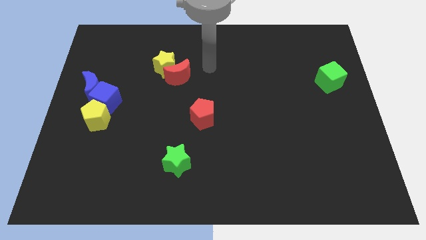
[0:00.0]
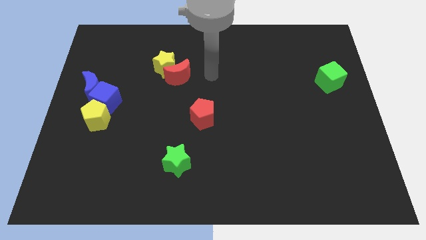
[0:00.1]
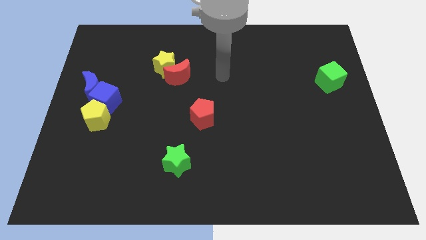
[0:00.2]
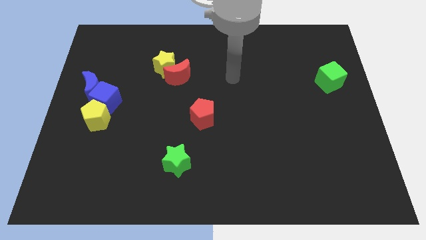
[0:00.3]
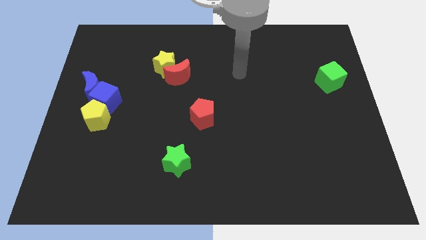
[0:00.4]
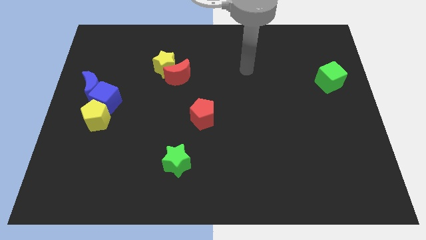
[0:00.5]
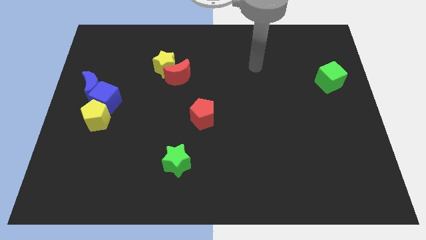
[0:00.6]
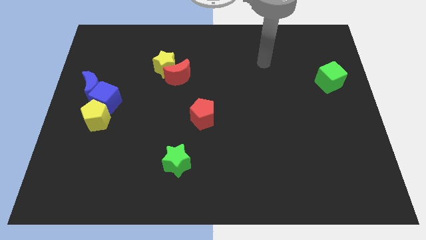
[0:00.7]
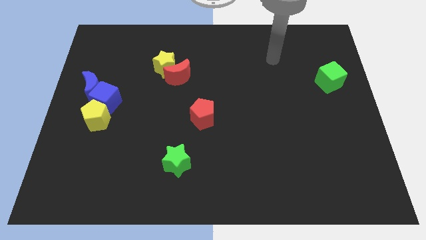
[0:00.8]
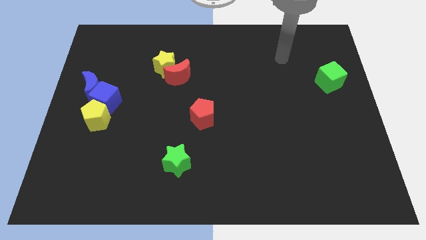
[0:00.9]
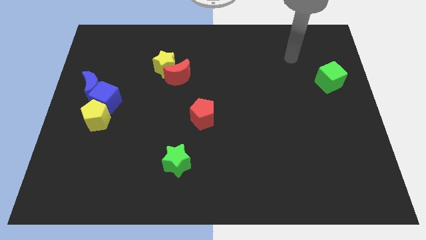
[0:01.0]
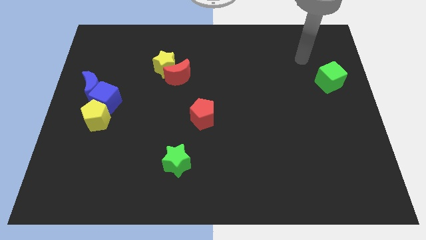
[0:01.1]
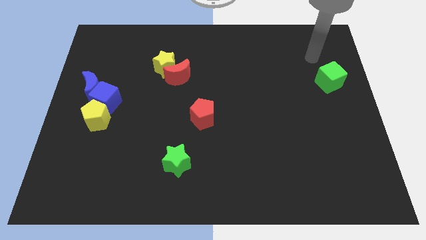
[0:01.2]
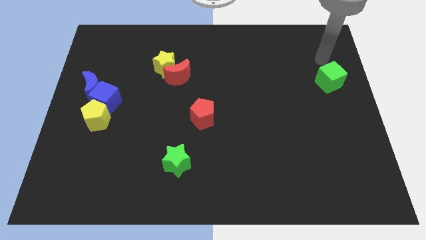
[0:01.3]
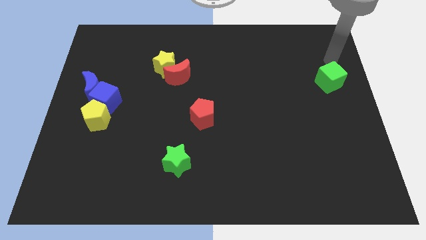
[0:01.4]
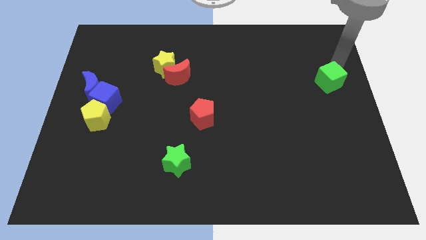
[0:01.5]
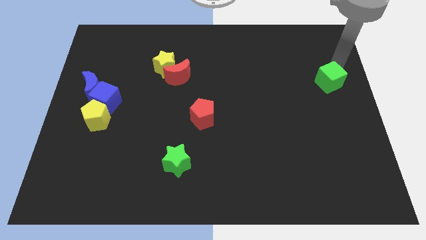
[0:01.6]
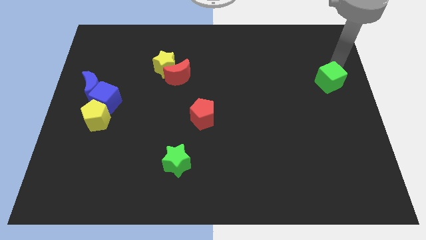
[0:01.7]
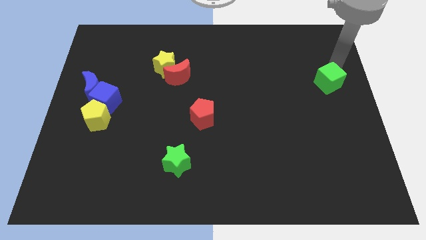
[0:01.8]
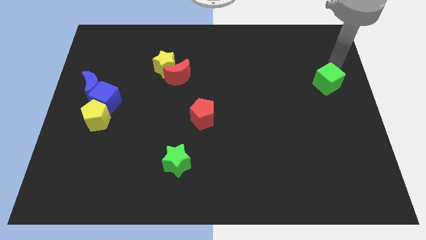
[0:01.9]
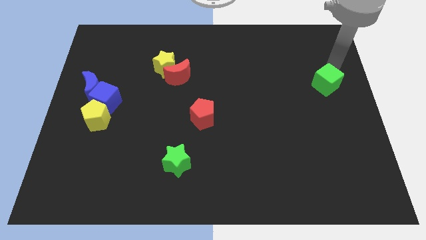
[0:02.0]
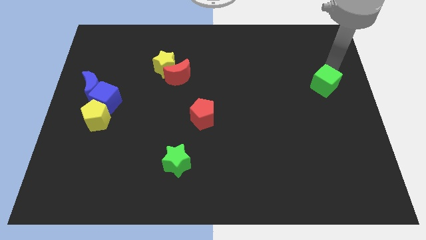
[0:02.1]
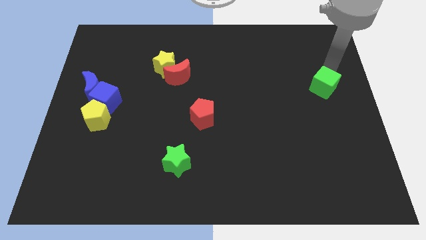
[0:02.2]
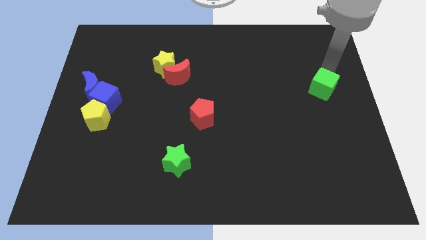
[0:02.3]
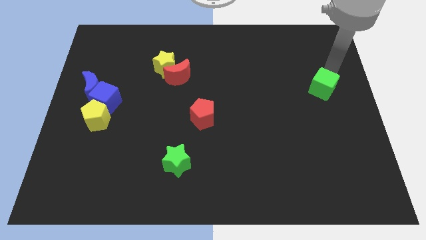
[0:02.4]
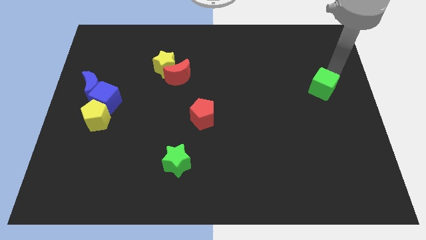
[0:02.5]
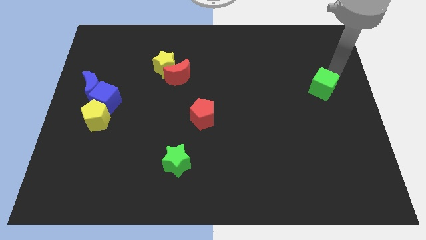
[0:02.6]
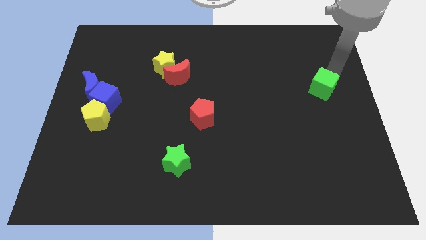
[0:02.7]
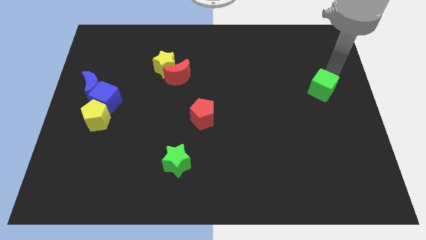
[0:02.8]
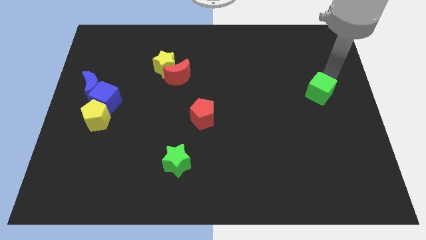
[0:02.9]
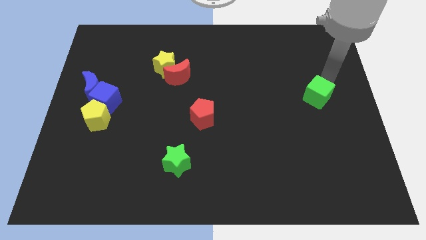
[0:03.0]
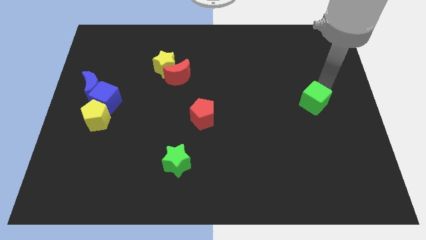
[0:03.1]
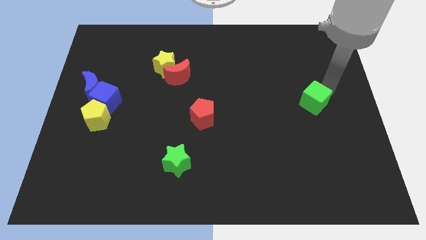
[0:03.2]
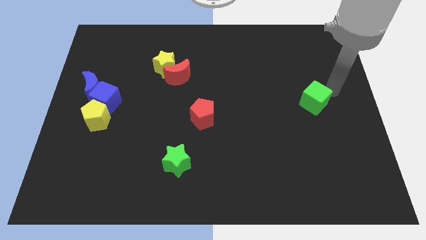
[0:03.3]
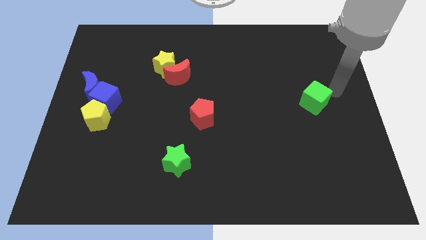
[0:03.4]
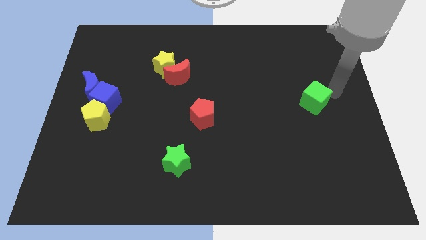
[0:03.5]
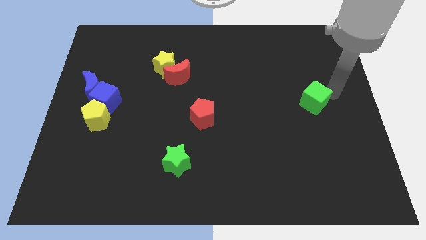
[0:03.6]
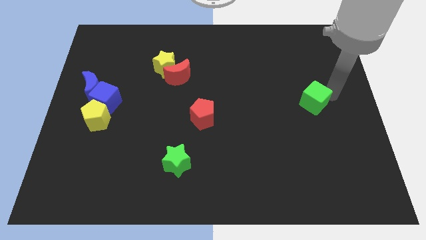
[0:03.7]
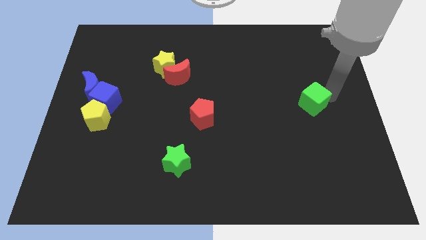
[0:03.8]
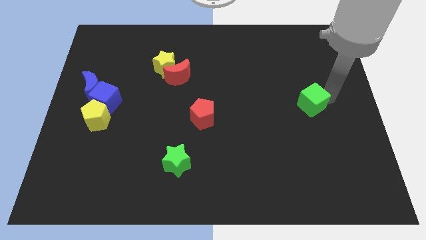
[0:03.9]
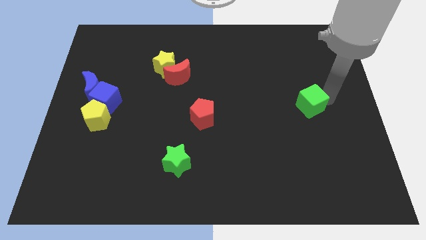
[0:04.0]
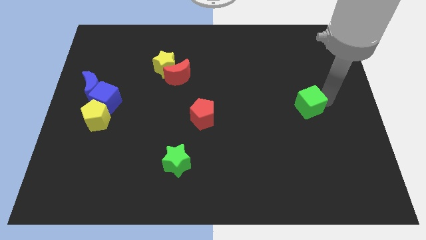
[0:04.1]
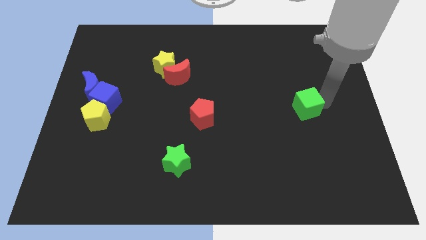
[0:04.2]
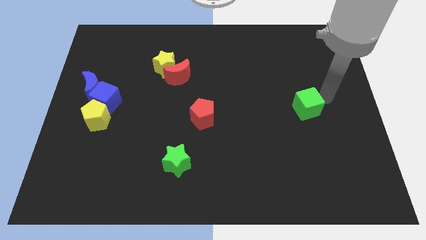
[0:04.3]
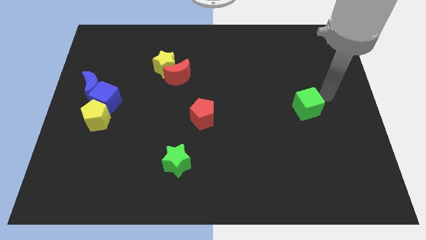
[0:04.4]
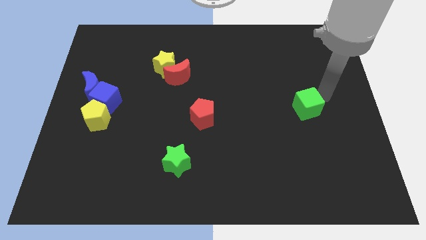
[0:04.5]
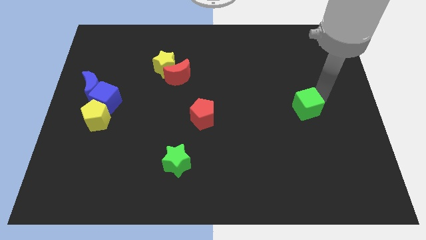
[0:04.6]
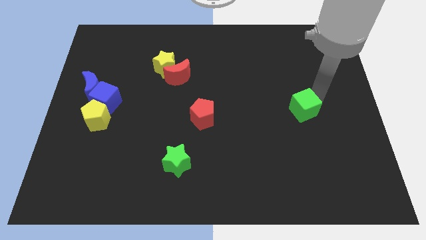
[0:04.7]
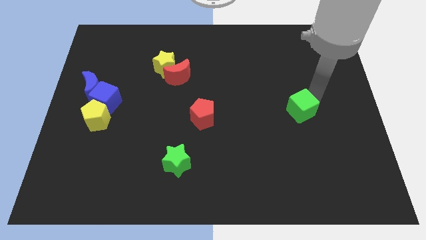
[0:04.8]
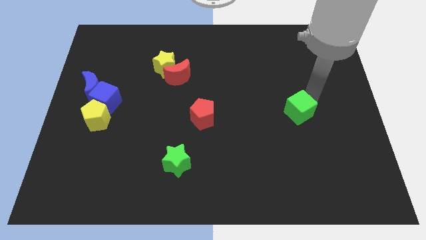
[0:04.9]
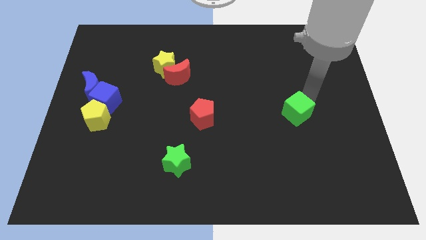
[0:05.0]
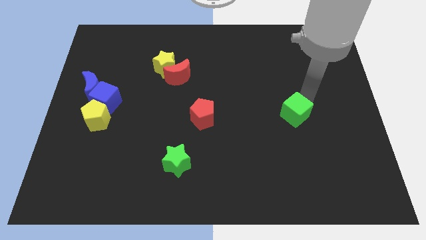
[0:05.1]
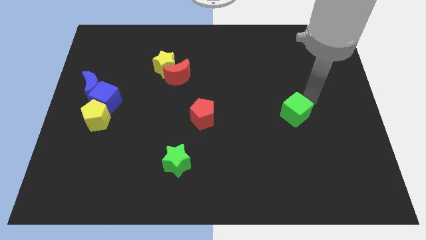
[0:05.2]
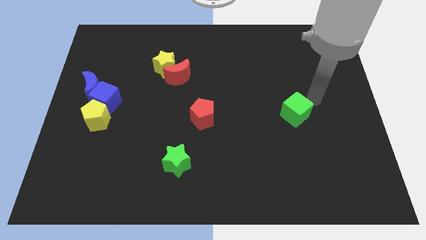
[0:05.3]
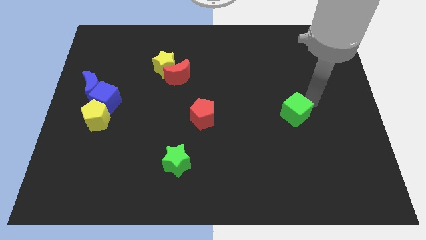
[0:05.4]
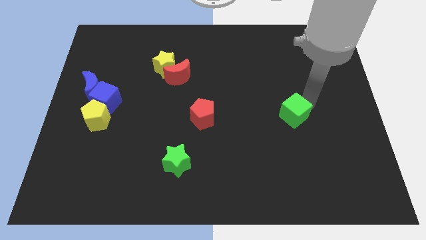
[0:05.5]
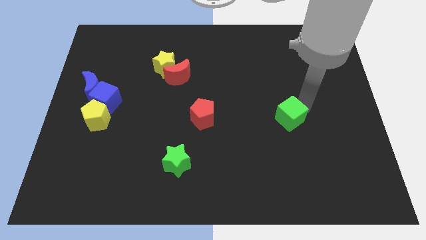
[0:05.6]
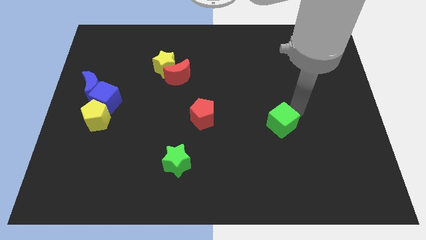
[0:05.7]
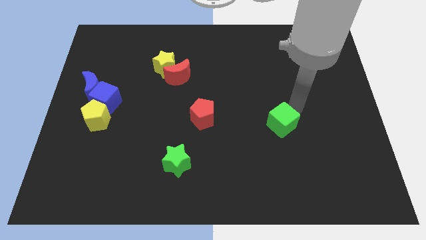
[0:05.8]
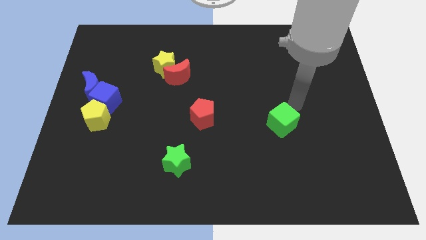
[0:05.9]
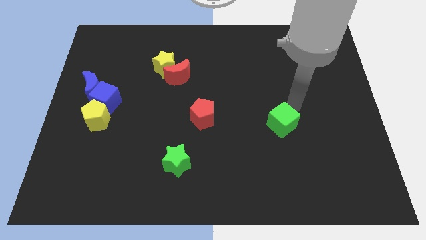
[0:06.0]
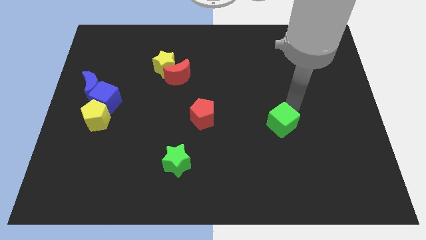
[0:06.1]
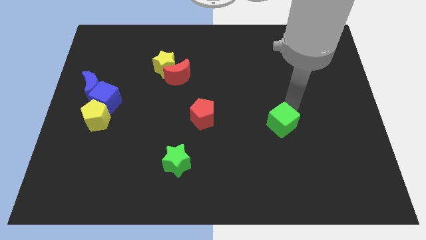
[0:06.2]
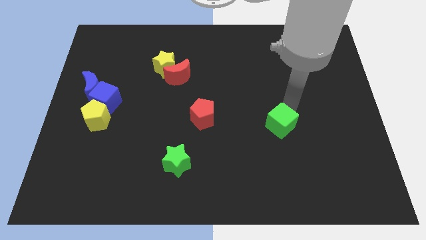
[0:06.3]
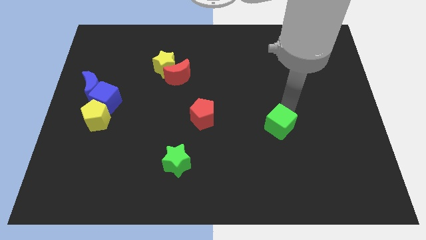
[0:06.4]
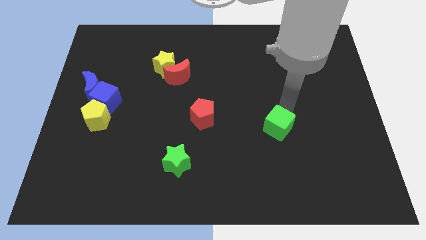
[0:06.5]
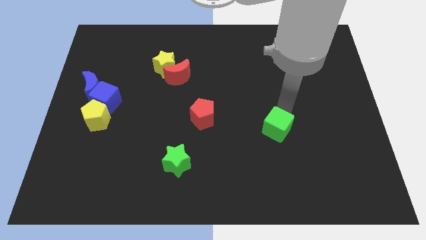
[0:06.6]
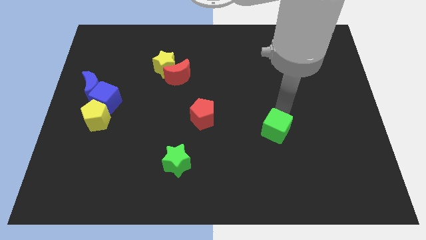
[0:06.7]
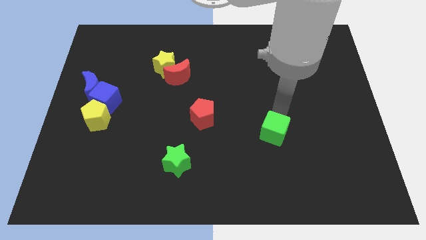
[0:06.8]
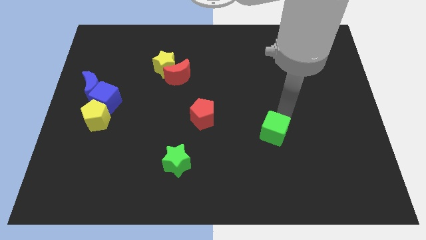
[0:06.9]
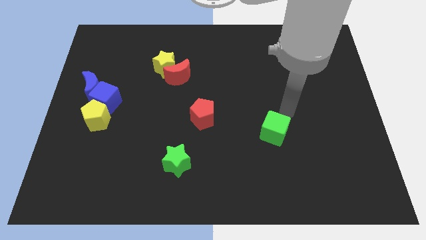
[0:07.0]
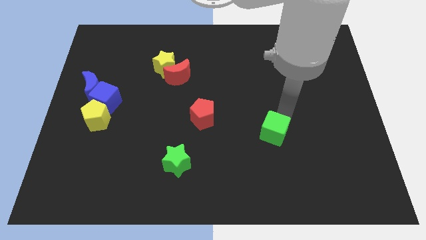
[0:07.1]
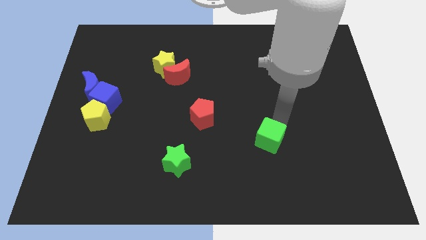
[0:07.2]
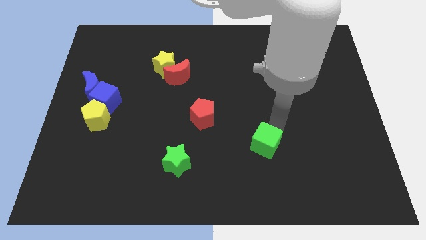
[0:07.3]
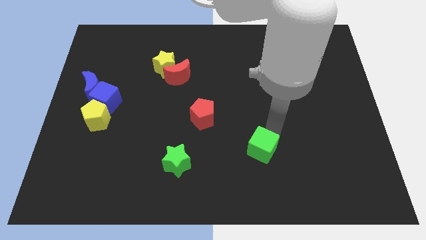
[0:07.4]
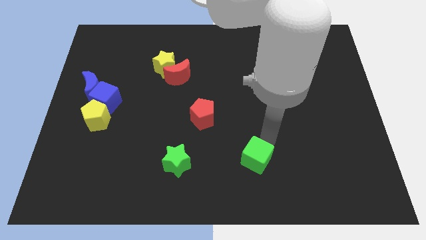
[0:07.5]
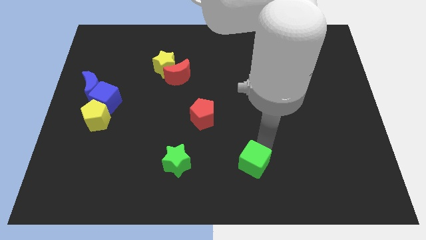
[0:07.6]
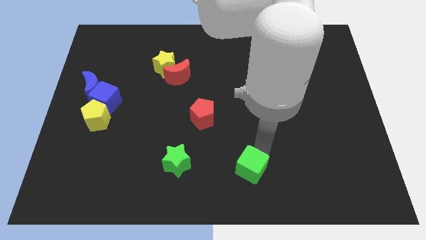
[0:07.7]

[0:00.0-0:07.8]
slide the green cube to the bottom side
